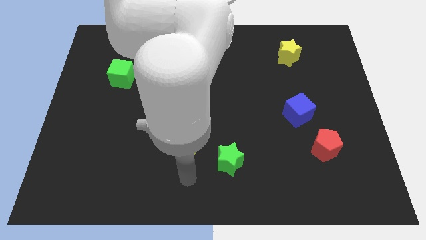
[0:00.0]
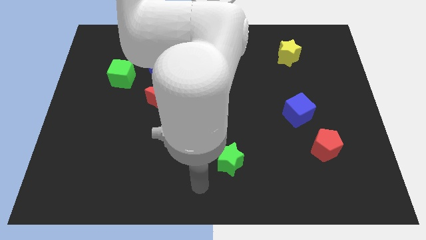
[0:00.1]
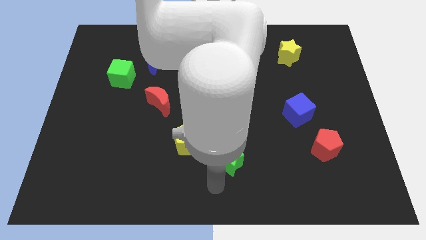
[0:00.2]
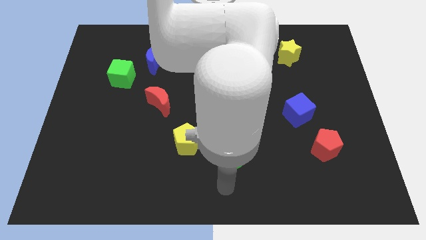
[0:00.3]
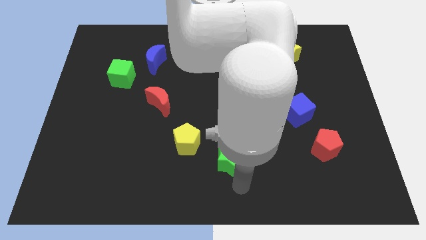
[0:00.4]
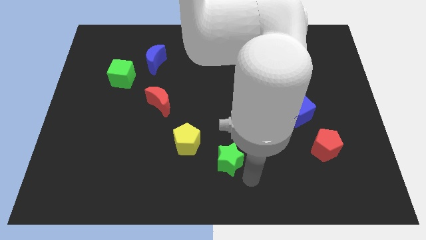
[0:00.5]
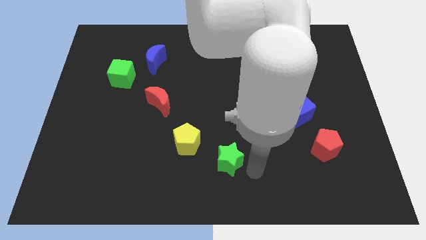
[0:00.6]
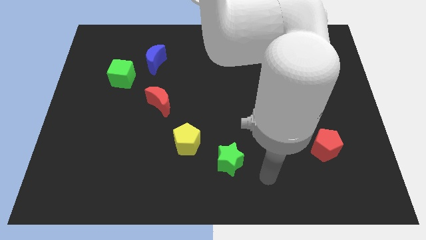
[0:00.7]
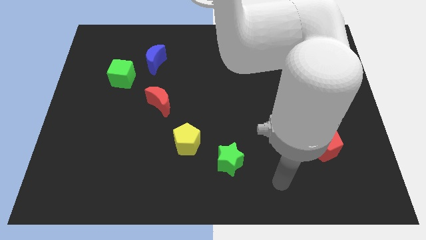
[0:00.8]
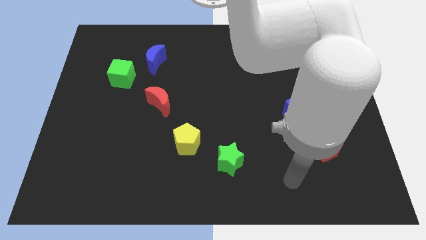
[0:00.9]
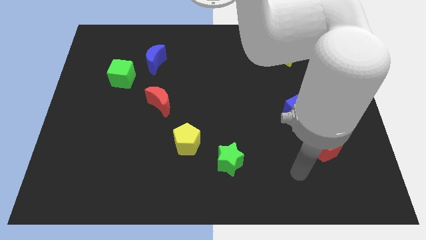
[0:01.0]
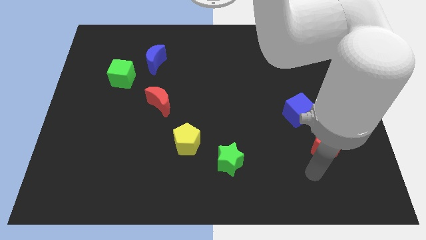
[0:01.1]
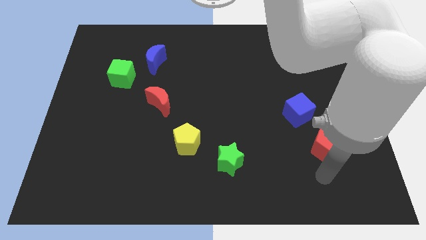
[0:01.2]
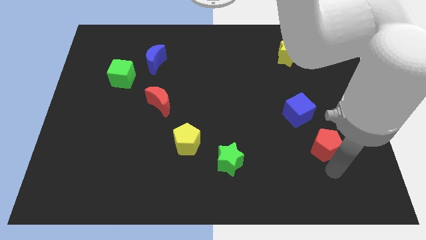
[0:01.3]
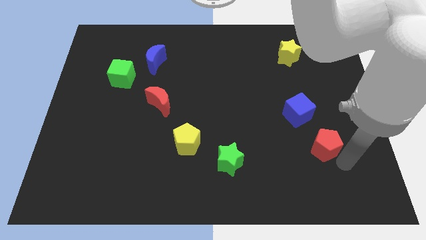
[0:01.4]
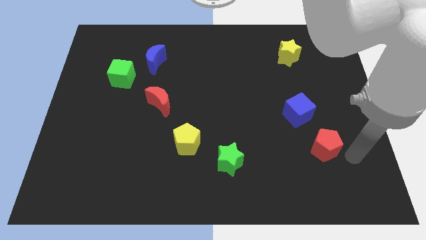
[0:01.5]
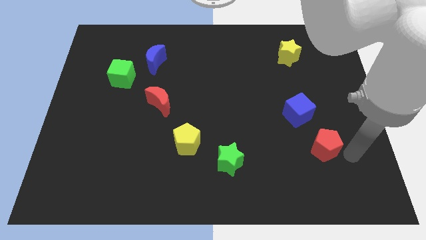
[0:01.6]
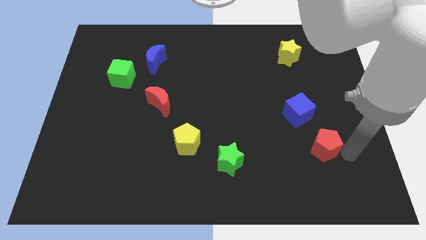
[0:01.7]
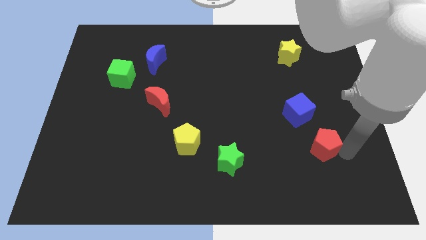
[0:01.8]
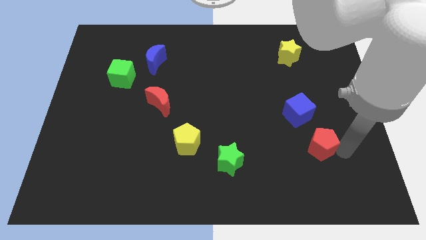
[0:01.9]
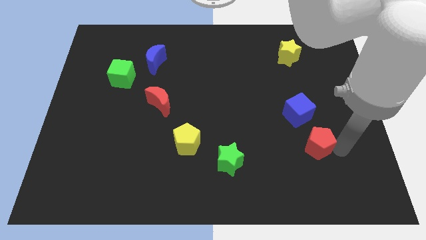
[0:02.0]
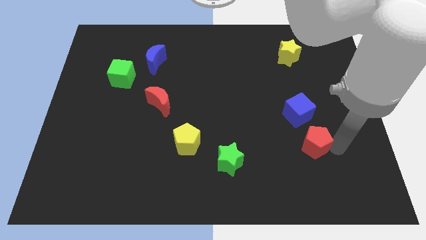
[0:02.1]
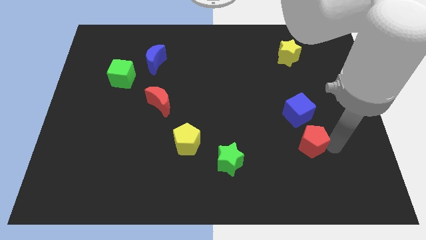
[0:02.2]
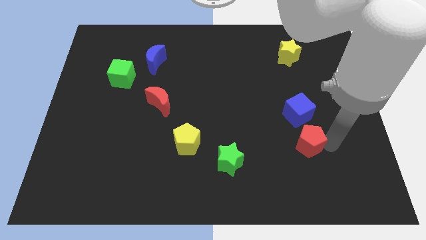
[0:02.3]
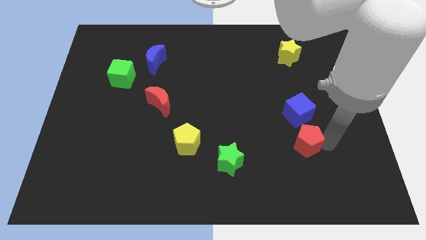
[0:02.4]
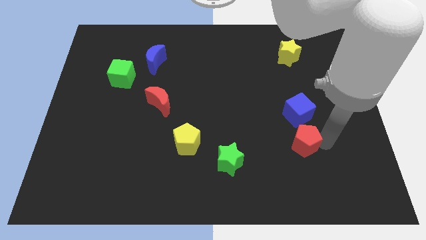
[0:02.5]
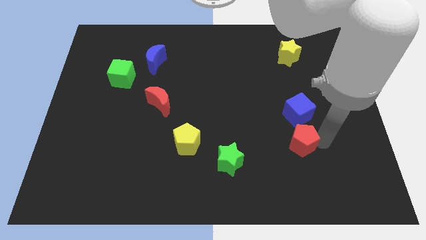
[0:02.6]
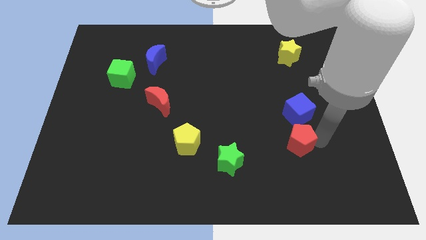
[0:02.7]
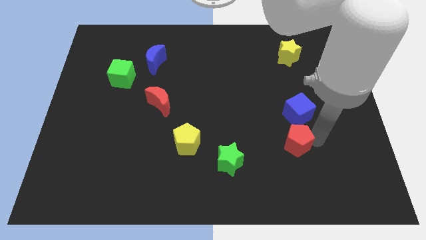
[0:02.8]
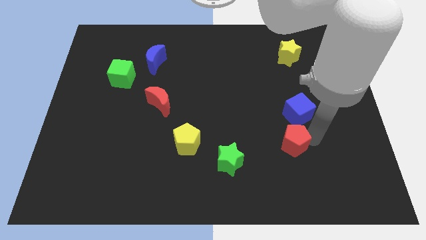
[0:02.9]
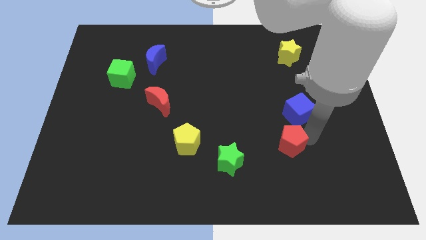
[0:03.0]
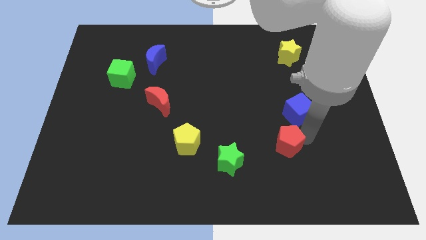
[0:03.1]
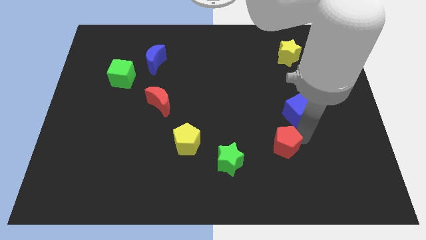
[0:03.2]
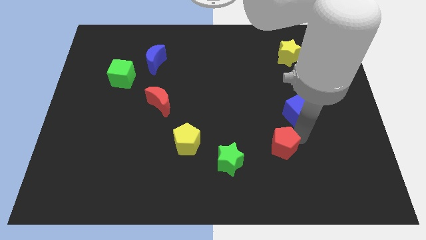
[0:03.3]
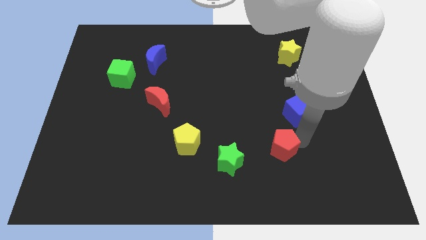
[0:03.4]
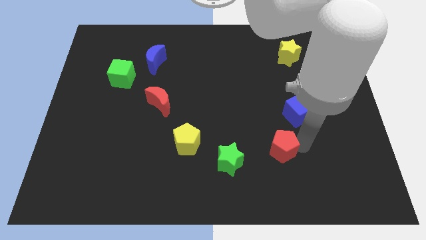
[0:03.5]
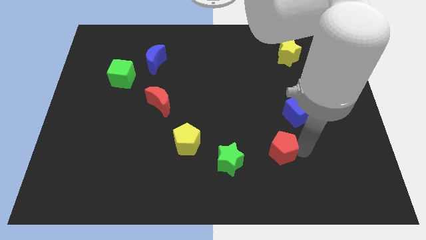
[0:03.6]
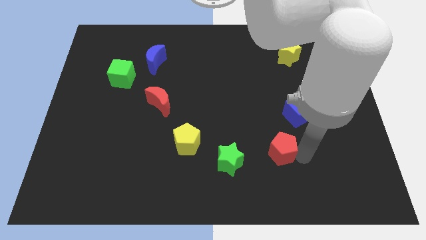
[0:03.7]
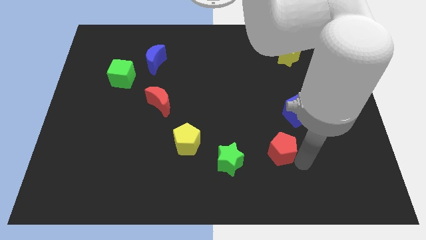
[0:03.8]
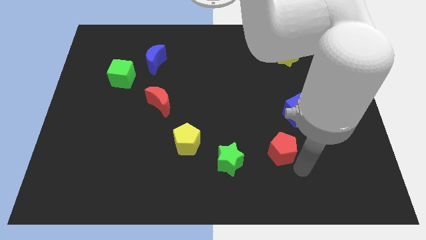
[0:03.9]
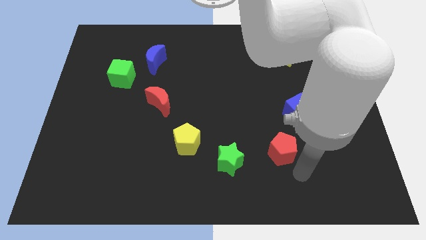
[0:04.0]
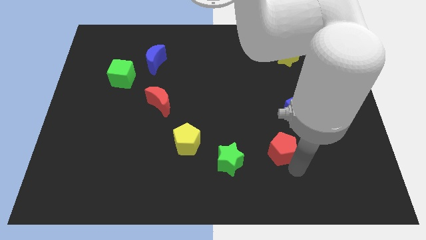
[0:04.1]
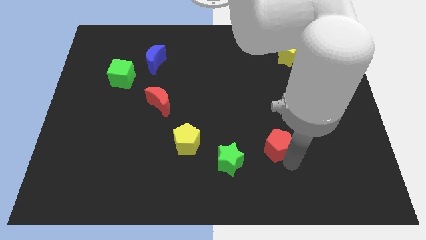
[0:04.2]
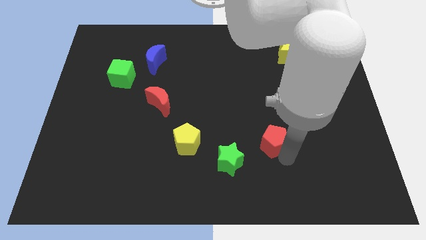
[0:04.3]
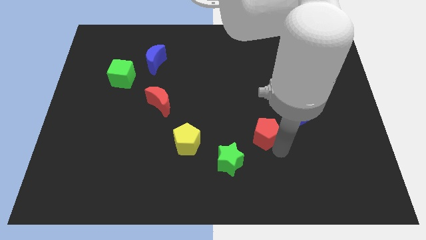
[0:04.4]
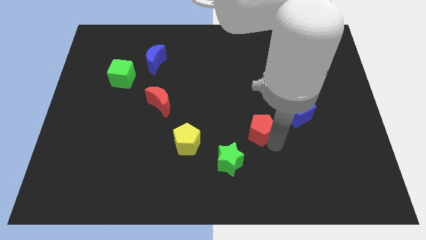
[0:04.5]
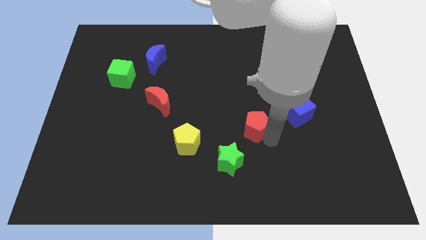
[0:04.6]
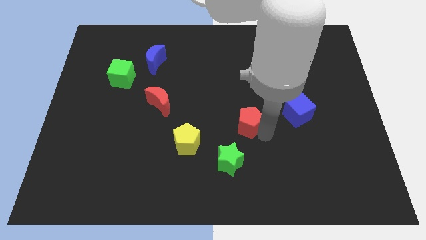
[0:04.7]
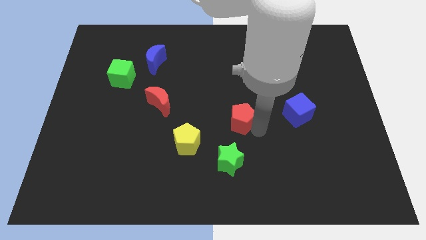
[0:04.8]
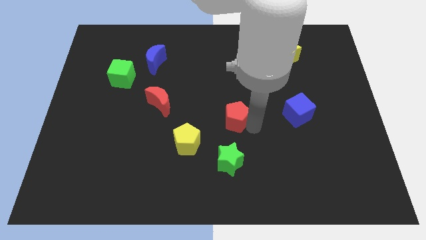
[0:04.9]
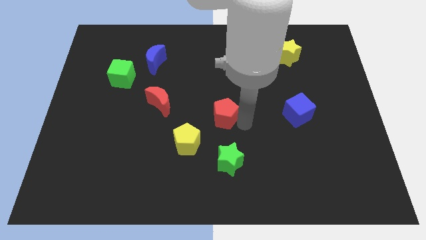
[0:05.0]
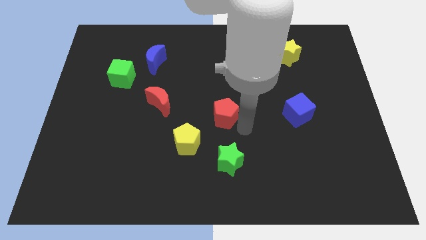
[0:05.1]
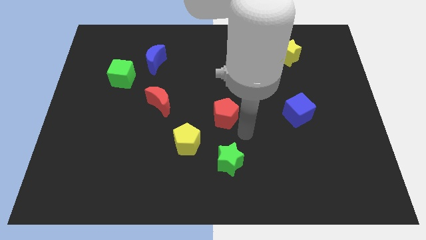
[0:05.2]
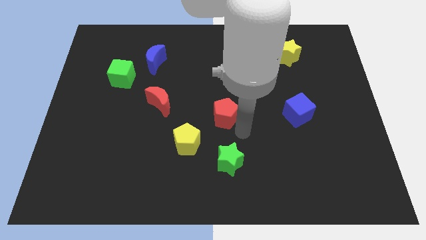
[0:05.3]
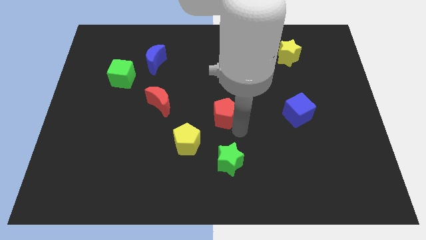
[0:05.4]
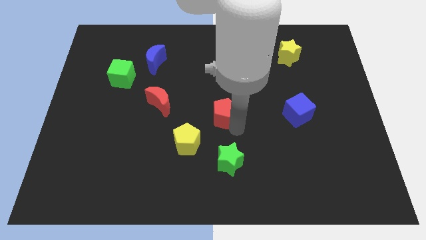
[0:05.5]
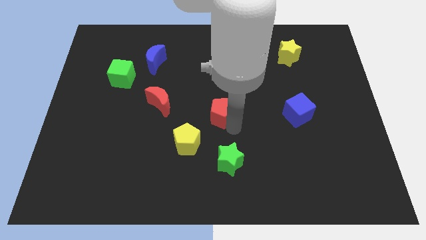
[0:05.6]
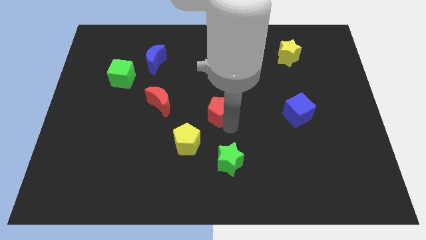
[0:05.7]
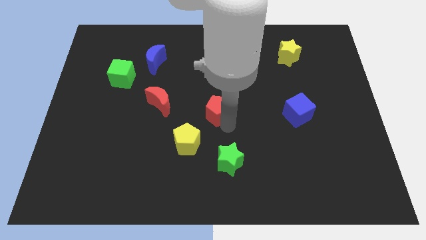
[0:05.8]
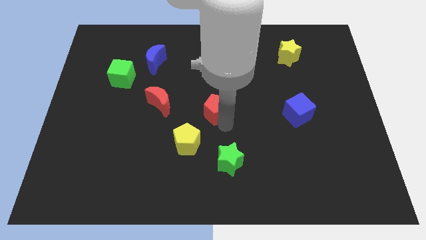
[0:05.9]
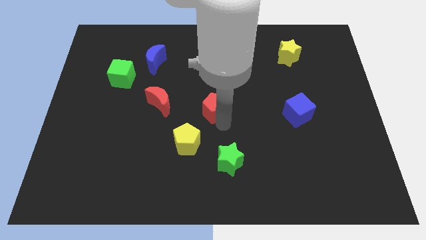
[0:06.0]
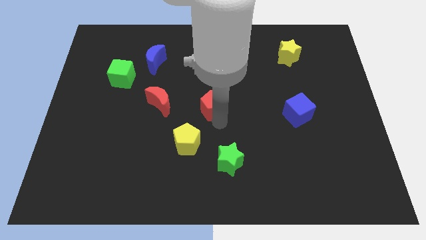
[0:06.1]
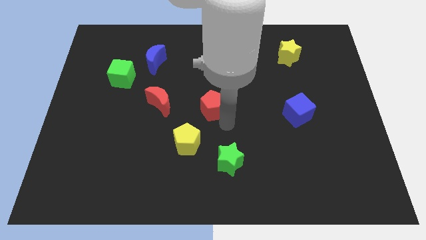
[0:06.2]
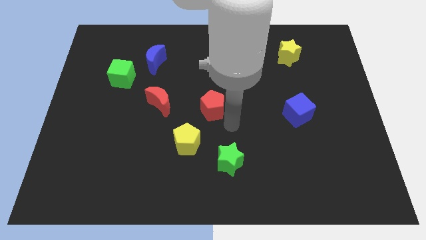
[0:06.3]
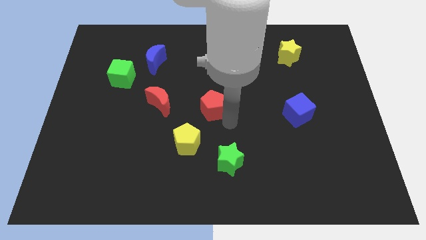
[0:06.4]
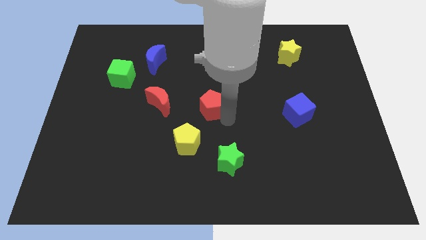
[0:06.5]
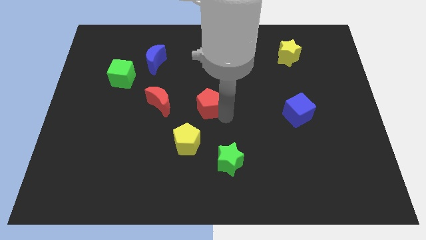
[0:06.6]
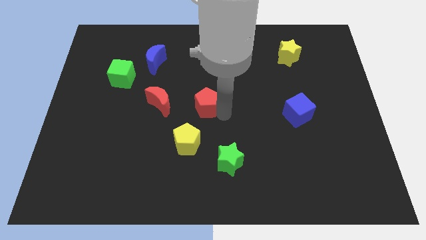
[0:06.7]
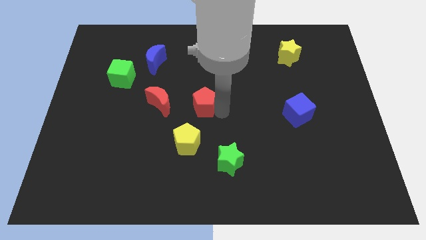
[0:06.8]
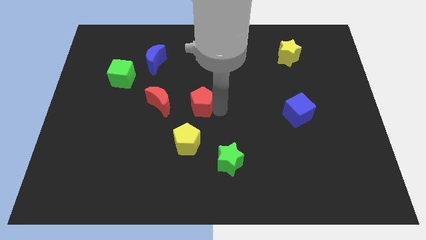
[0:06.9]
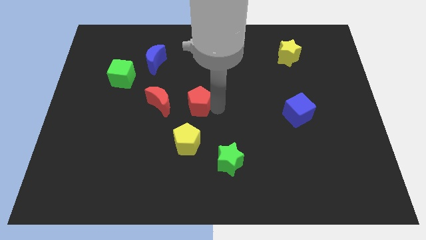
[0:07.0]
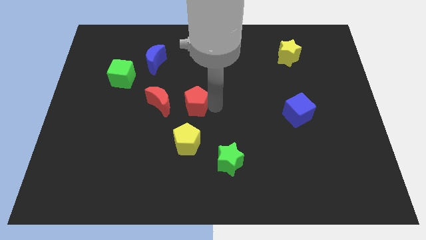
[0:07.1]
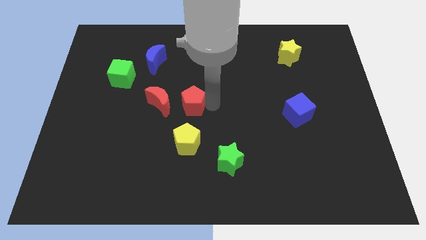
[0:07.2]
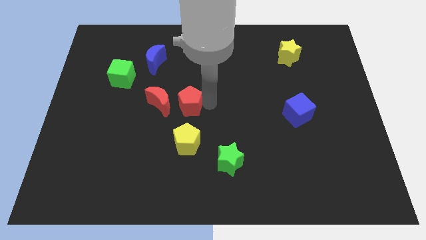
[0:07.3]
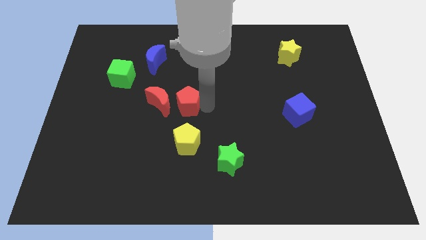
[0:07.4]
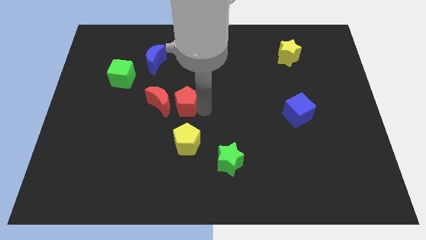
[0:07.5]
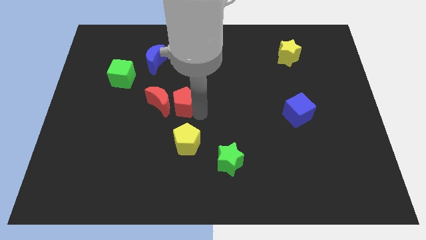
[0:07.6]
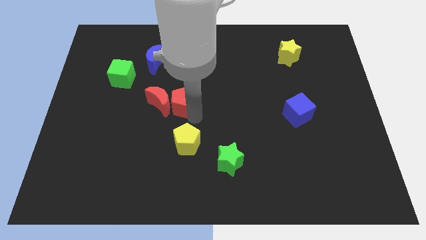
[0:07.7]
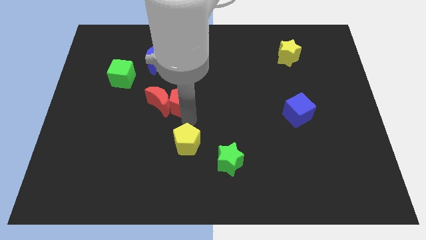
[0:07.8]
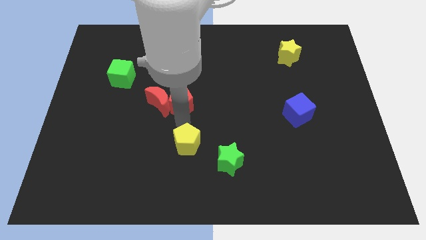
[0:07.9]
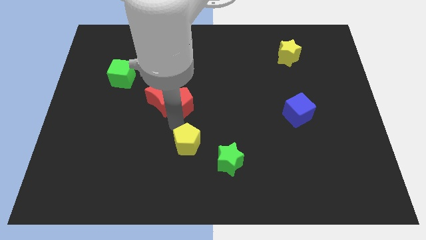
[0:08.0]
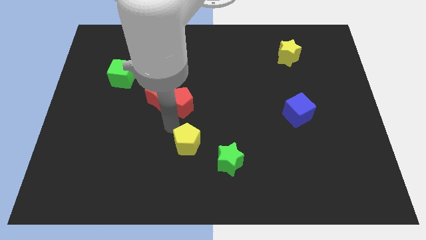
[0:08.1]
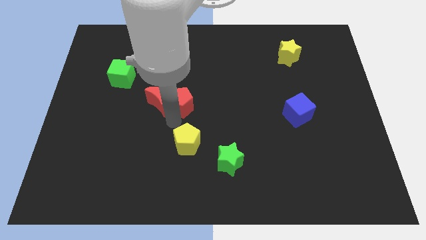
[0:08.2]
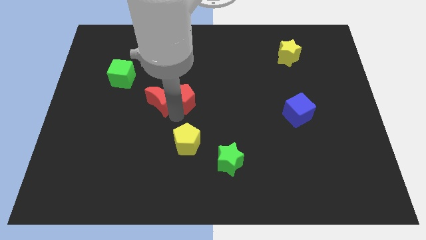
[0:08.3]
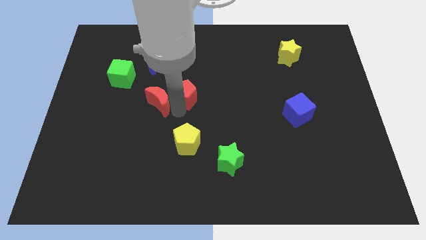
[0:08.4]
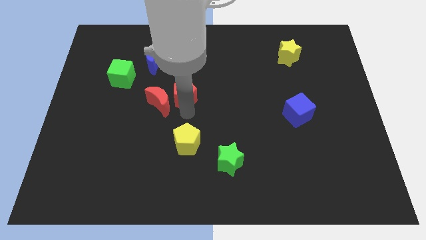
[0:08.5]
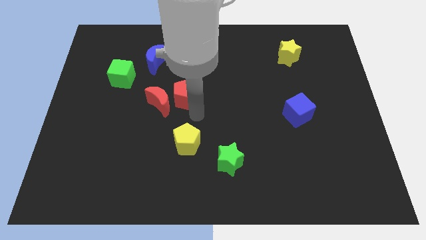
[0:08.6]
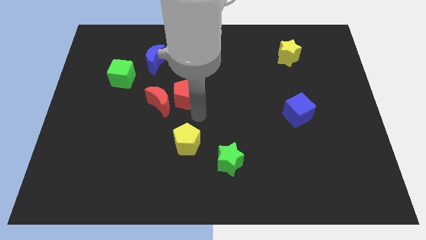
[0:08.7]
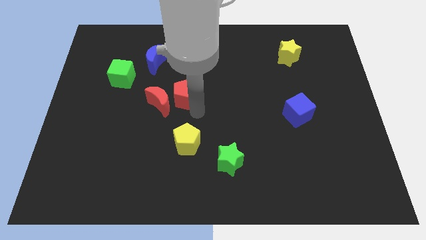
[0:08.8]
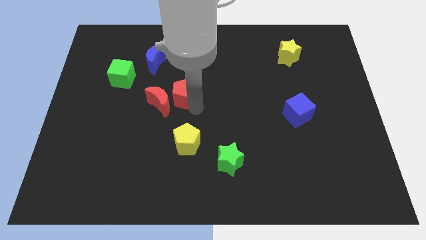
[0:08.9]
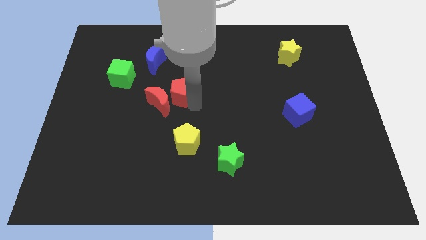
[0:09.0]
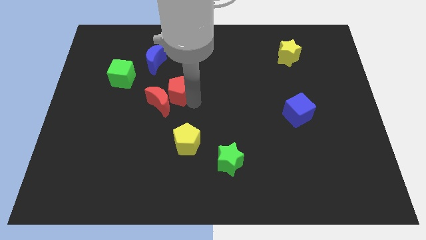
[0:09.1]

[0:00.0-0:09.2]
push the red pentagon above the red moon
